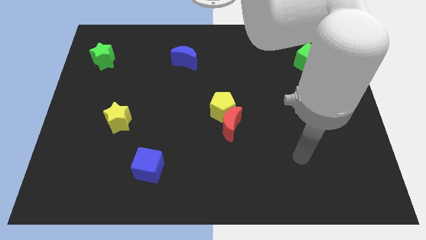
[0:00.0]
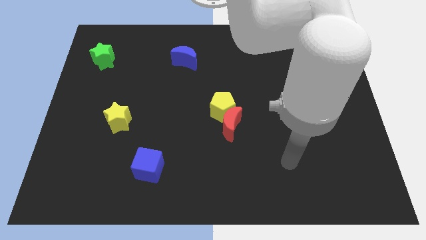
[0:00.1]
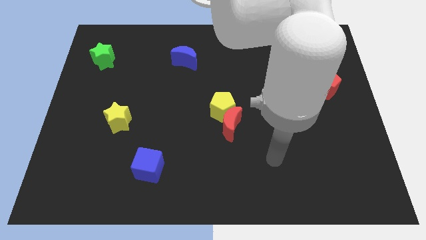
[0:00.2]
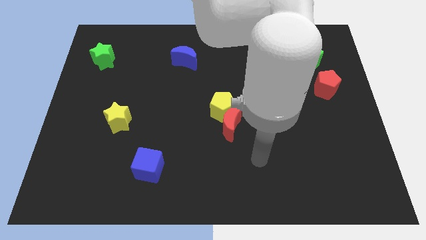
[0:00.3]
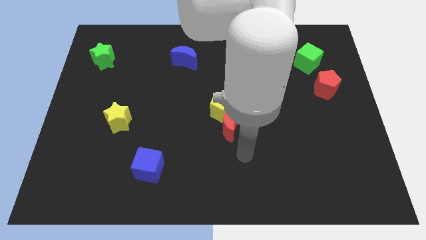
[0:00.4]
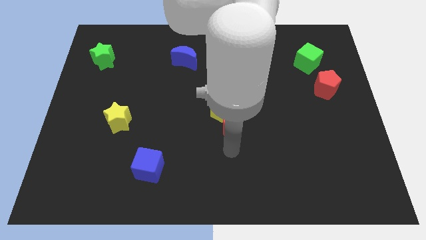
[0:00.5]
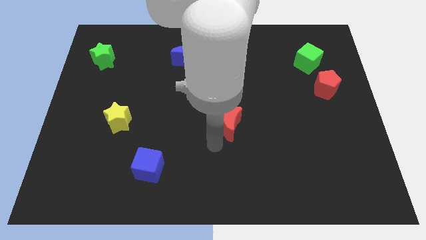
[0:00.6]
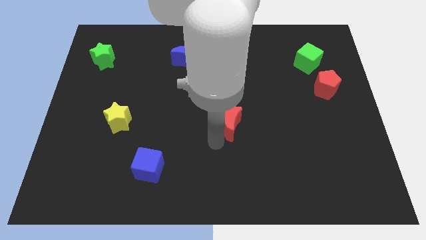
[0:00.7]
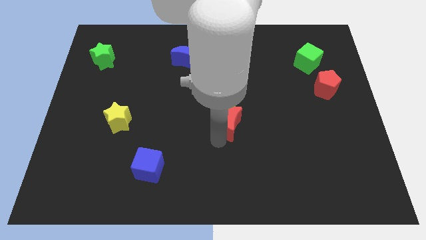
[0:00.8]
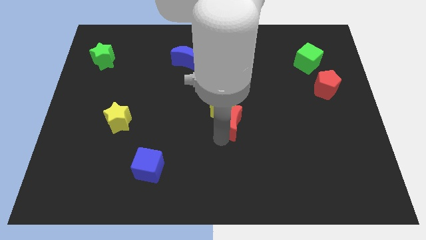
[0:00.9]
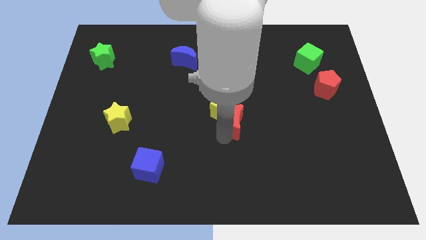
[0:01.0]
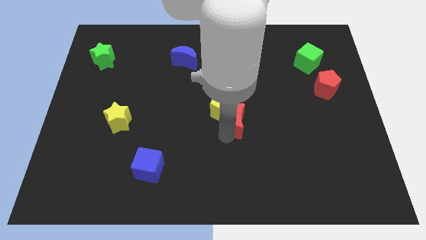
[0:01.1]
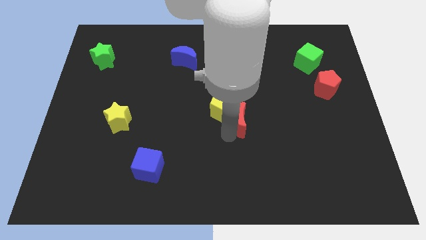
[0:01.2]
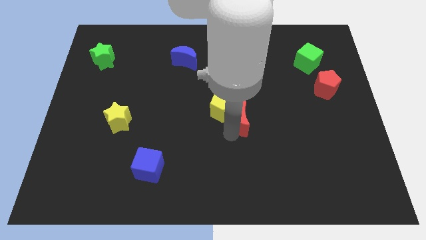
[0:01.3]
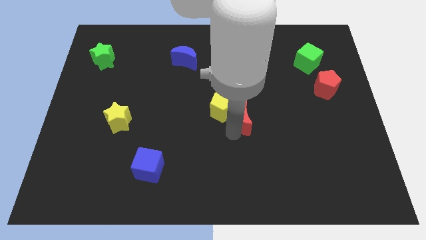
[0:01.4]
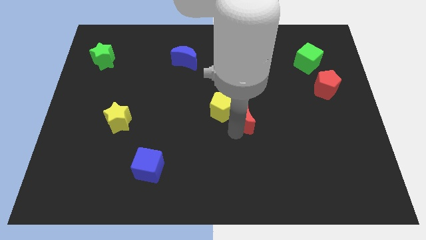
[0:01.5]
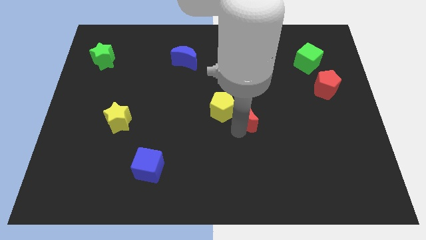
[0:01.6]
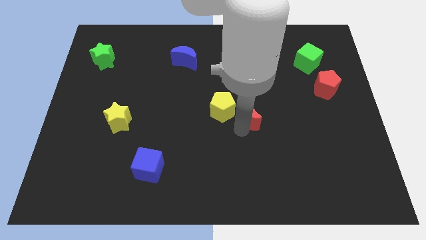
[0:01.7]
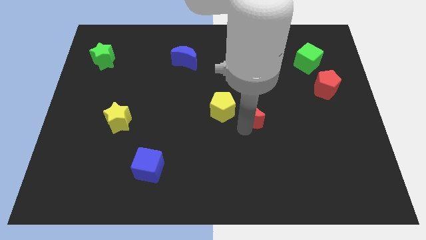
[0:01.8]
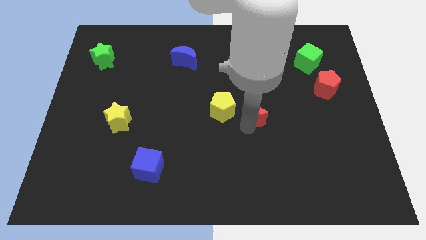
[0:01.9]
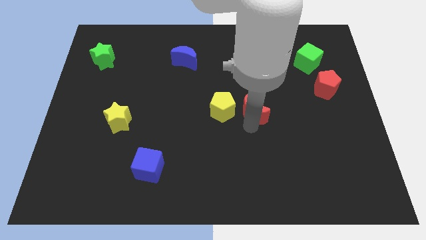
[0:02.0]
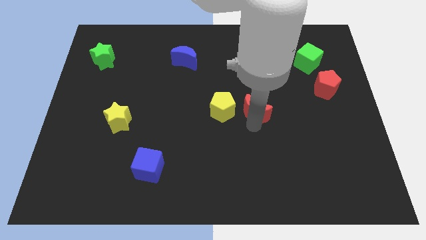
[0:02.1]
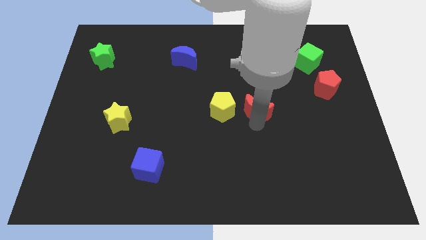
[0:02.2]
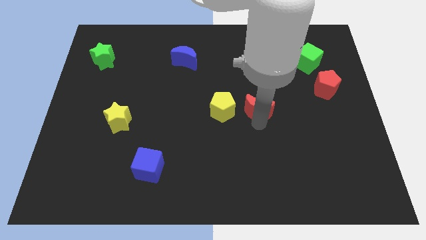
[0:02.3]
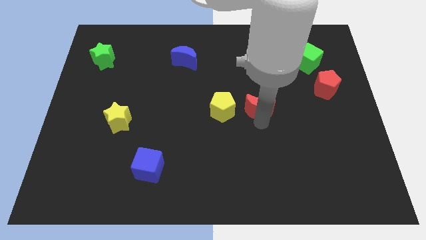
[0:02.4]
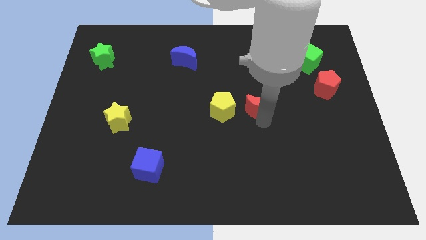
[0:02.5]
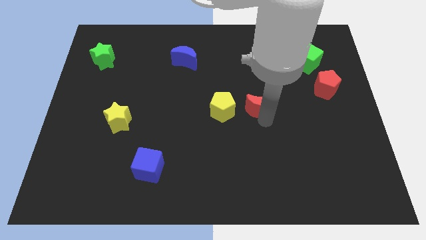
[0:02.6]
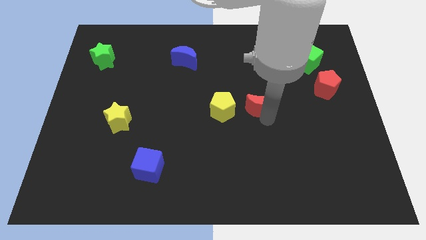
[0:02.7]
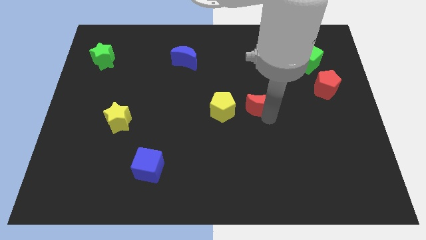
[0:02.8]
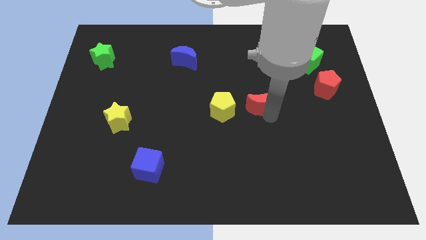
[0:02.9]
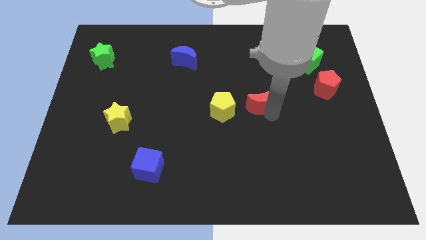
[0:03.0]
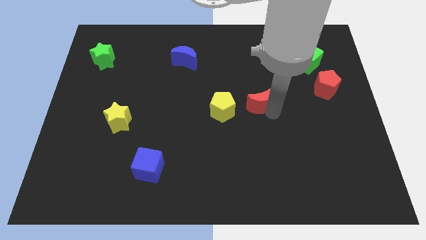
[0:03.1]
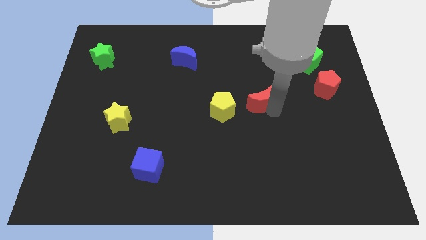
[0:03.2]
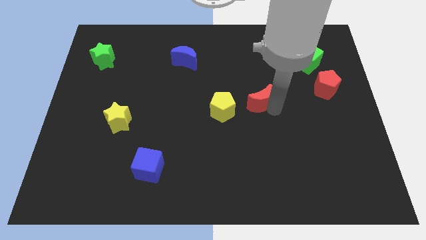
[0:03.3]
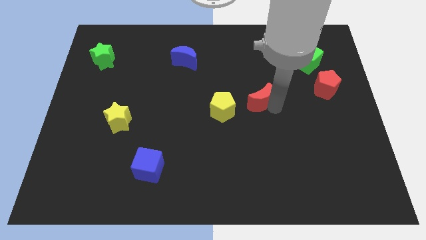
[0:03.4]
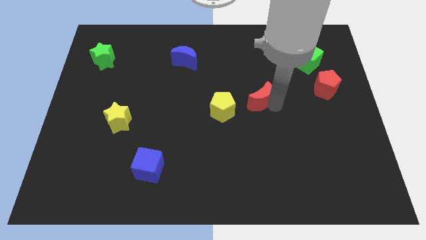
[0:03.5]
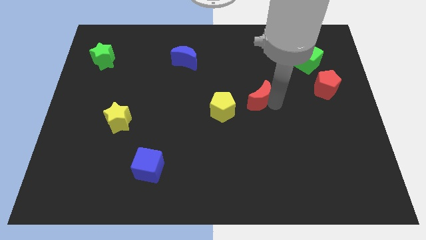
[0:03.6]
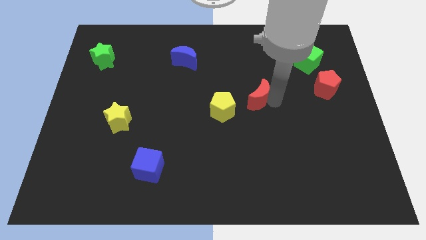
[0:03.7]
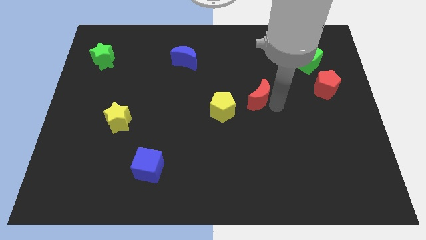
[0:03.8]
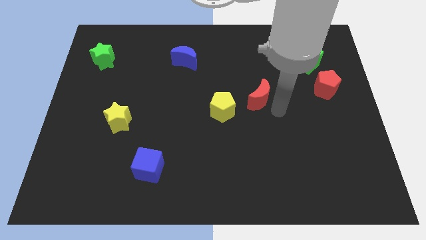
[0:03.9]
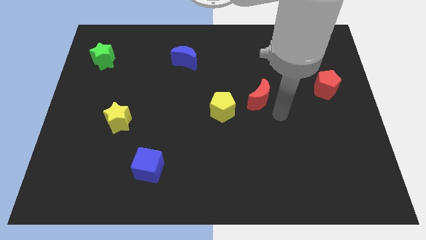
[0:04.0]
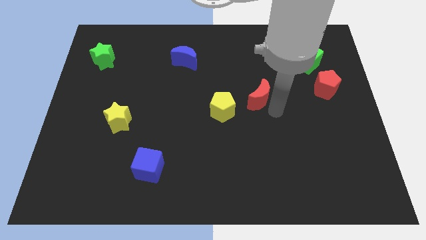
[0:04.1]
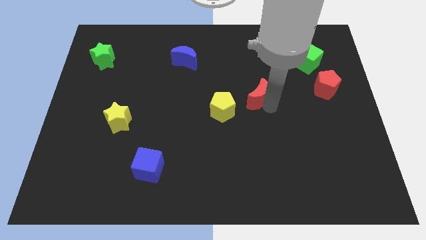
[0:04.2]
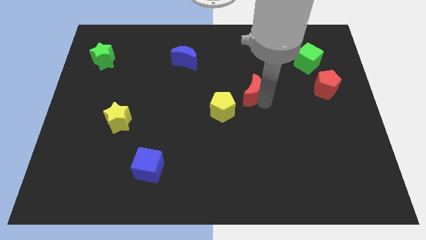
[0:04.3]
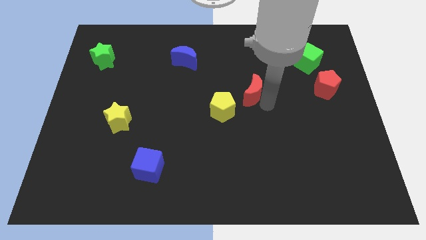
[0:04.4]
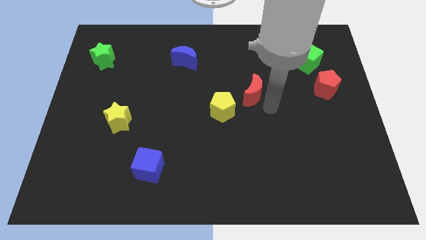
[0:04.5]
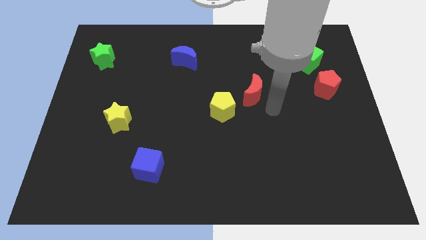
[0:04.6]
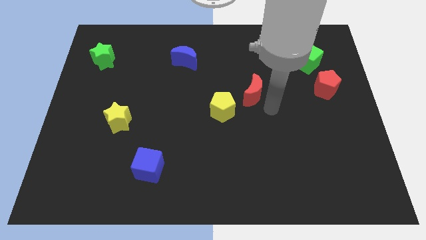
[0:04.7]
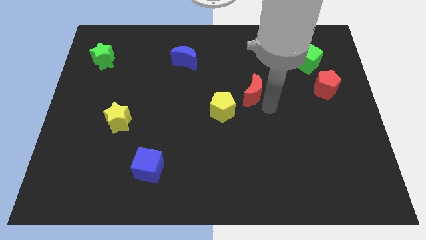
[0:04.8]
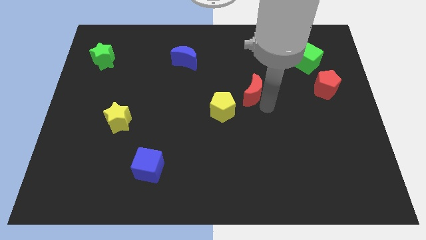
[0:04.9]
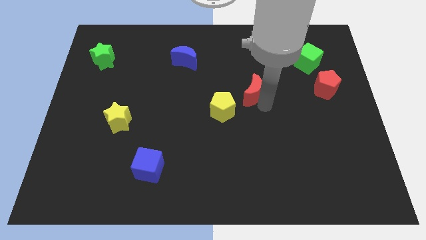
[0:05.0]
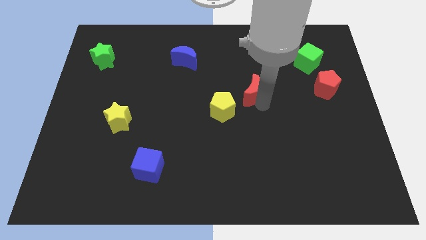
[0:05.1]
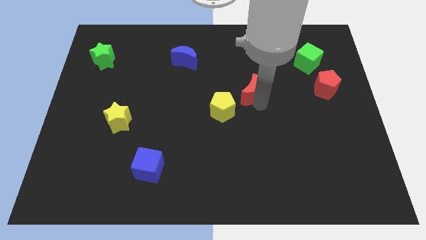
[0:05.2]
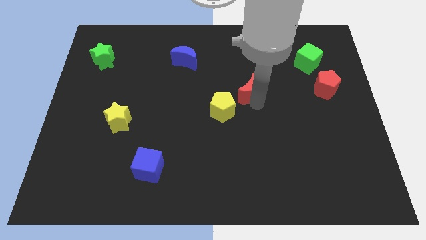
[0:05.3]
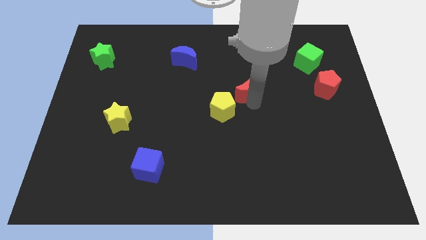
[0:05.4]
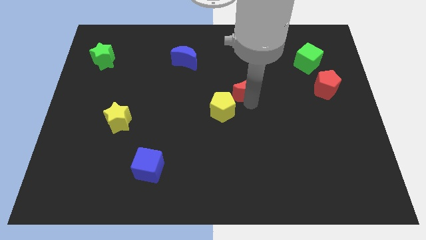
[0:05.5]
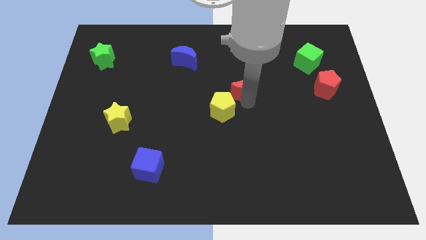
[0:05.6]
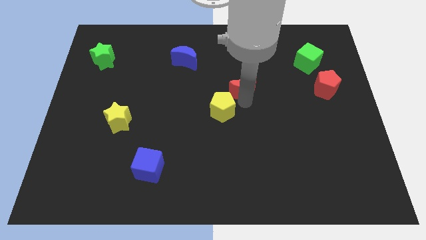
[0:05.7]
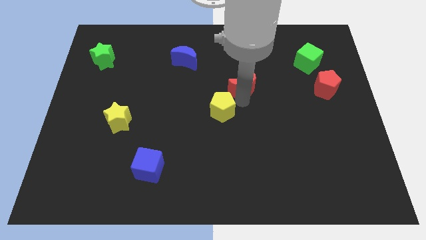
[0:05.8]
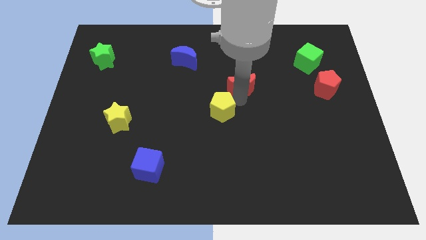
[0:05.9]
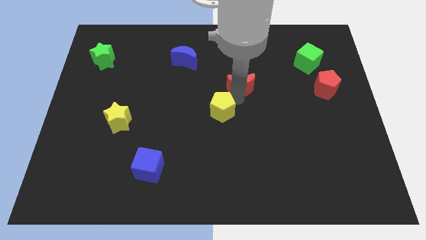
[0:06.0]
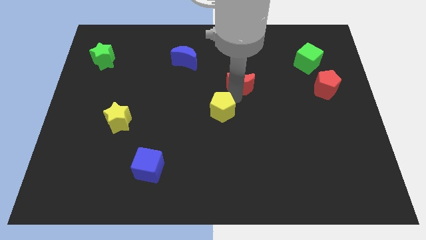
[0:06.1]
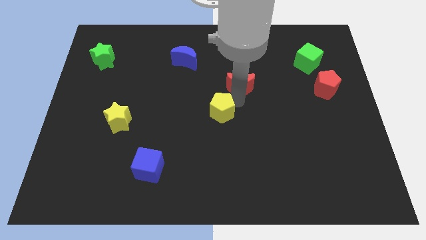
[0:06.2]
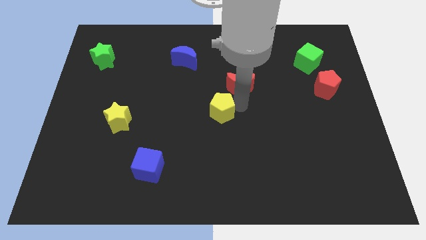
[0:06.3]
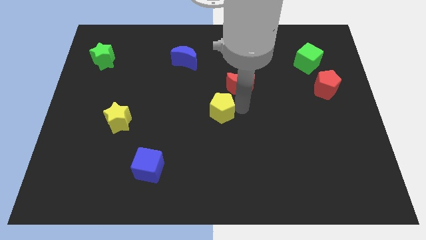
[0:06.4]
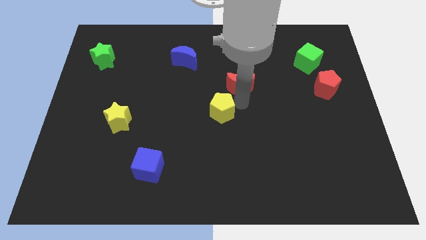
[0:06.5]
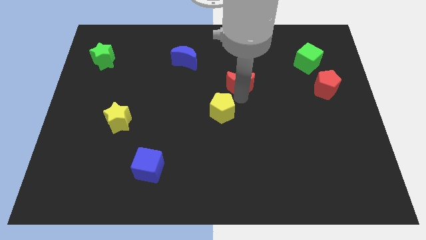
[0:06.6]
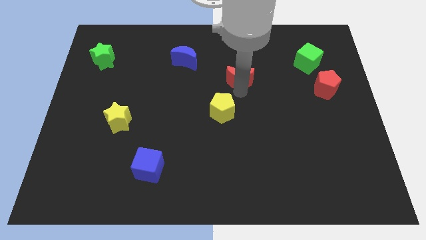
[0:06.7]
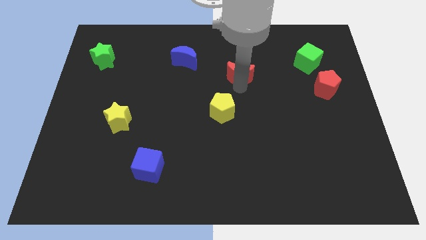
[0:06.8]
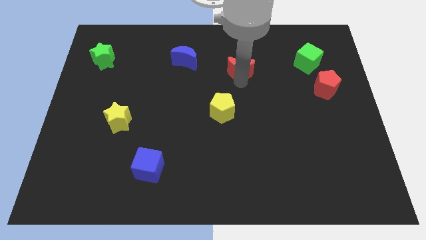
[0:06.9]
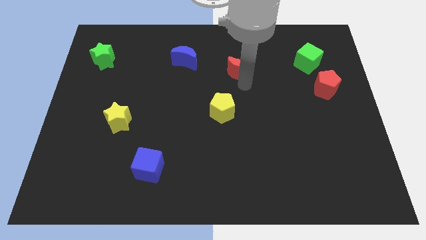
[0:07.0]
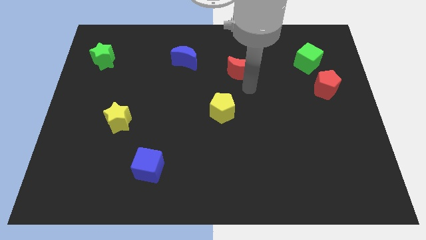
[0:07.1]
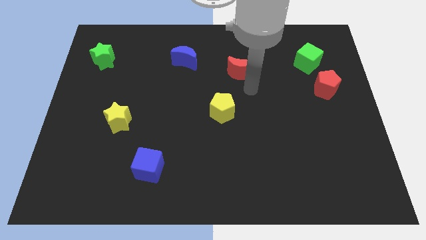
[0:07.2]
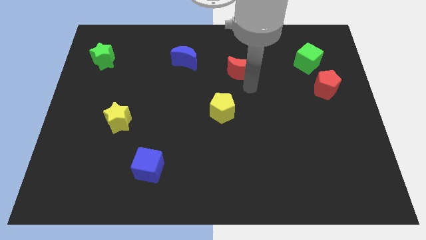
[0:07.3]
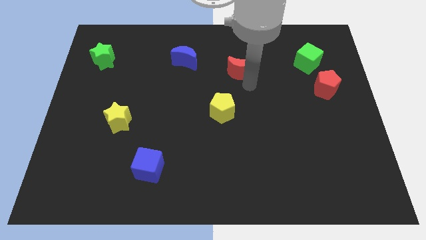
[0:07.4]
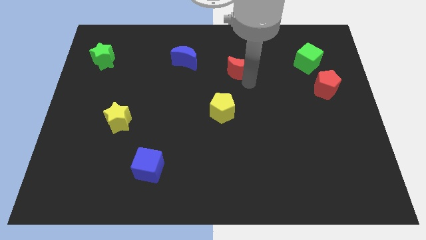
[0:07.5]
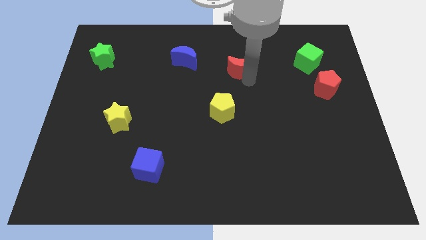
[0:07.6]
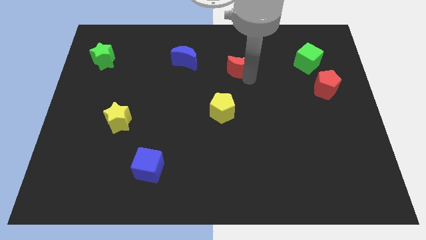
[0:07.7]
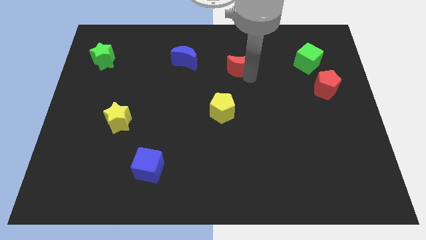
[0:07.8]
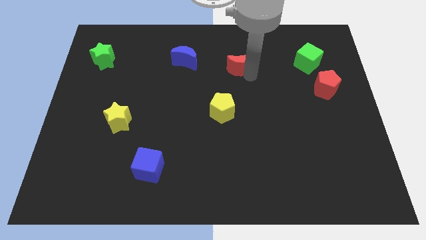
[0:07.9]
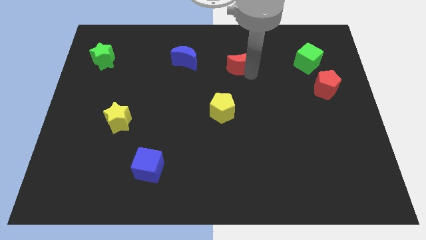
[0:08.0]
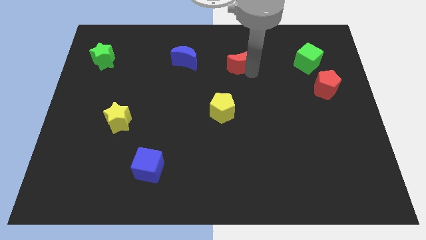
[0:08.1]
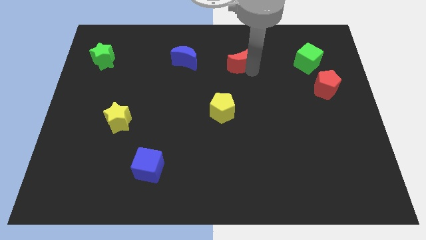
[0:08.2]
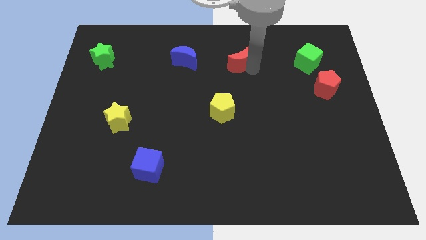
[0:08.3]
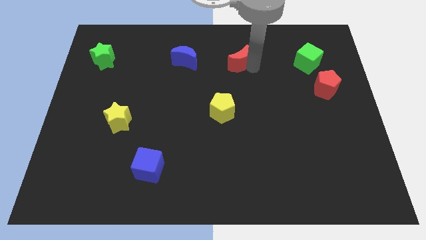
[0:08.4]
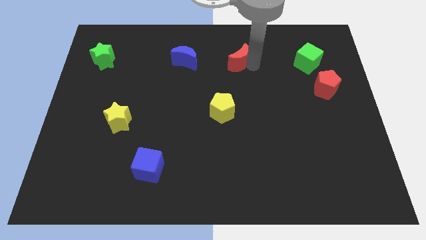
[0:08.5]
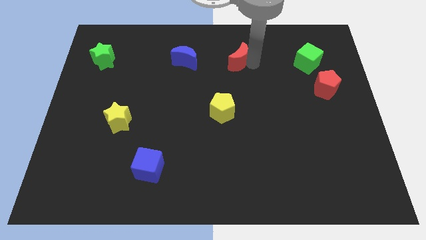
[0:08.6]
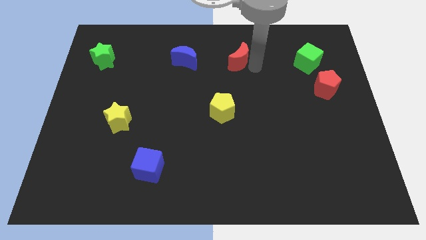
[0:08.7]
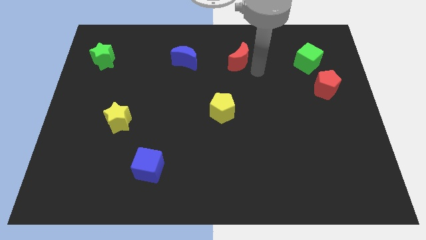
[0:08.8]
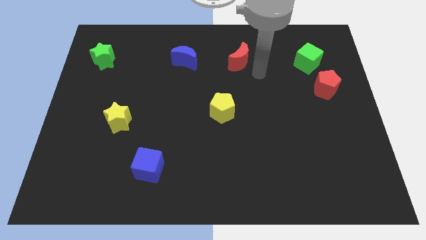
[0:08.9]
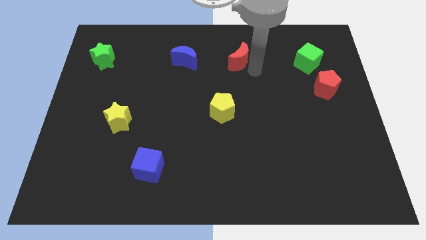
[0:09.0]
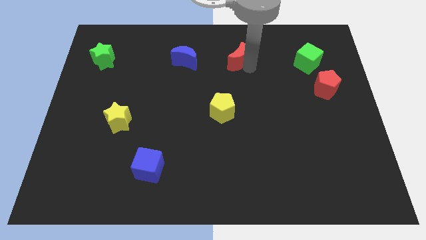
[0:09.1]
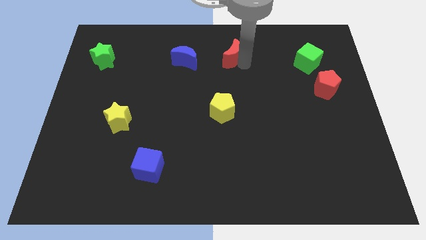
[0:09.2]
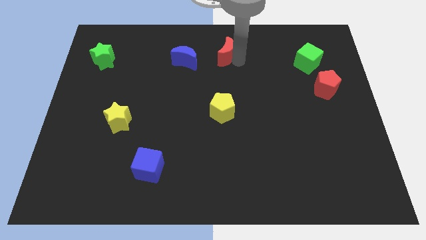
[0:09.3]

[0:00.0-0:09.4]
slide the red moon to the top side
